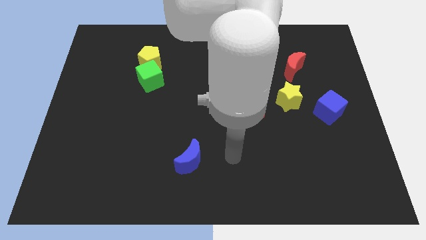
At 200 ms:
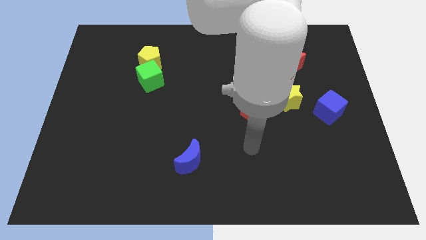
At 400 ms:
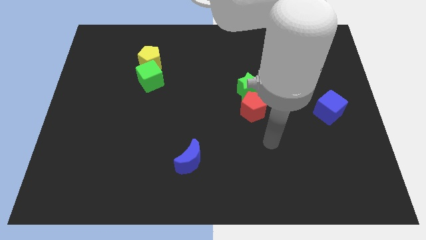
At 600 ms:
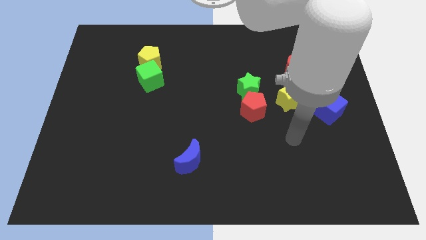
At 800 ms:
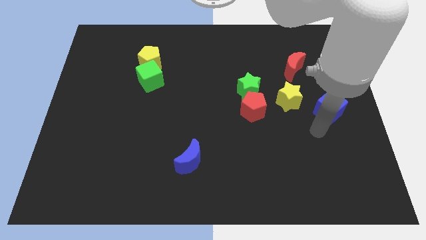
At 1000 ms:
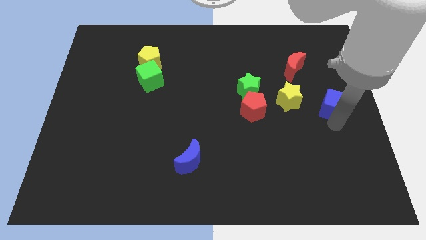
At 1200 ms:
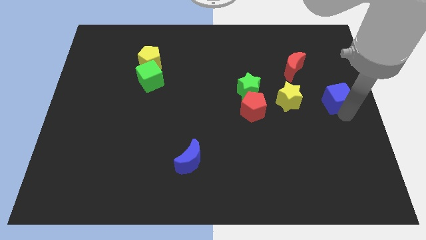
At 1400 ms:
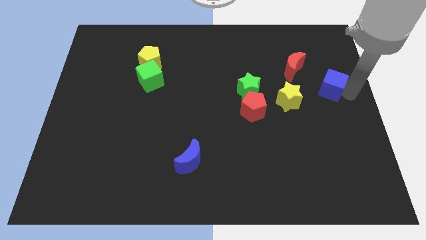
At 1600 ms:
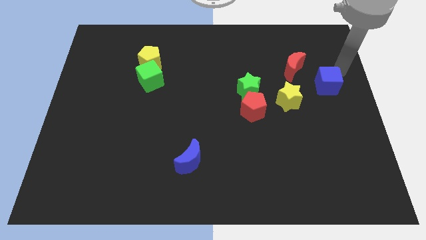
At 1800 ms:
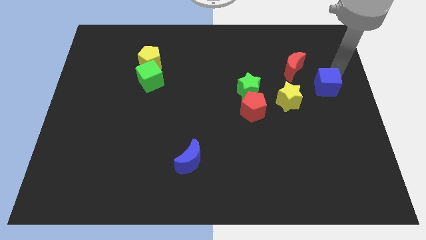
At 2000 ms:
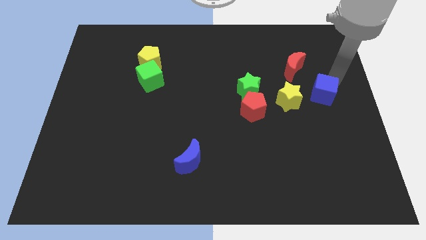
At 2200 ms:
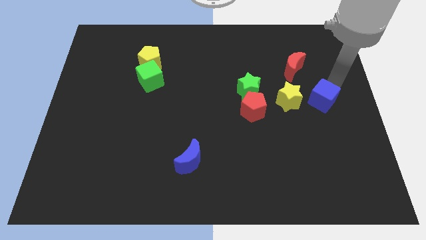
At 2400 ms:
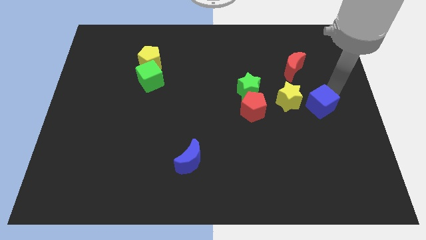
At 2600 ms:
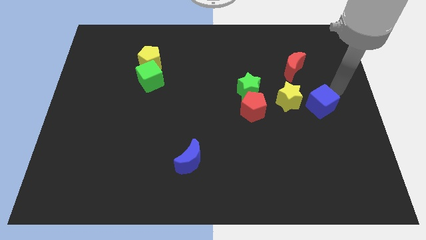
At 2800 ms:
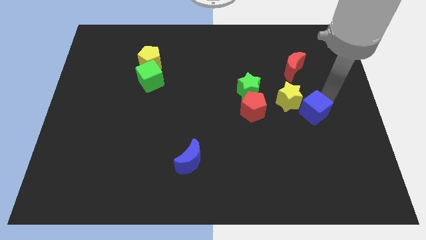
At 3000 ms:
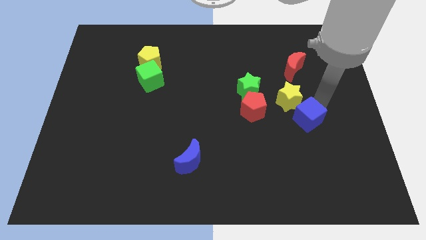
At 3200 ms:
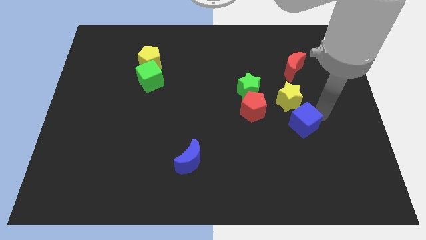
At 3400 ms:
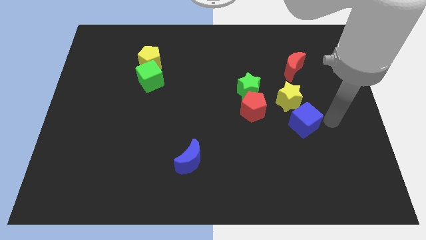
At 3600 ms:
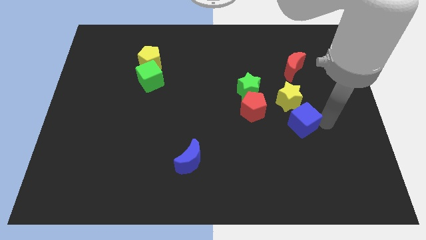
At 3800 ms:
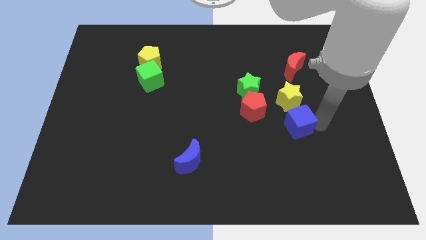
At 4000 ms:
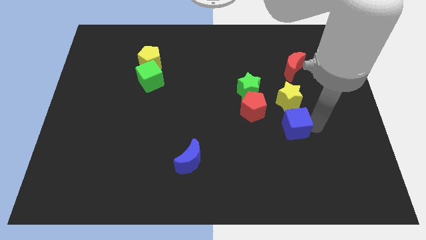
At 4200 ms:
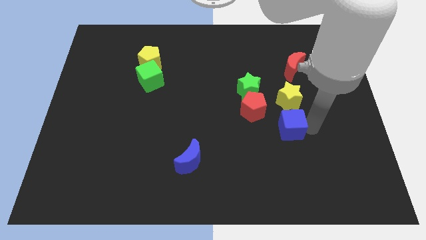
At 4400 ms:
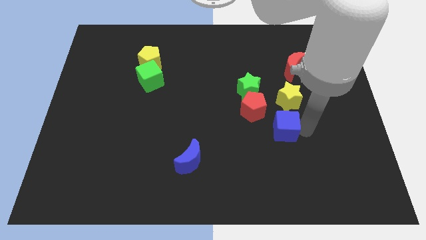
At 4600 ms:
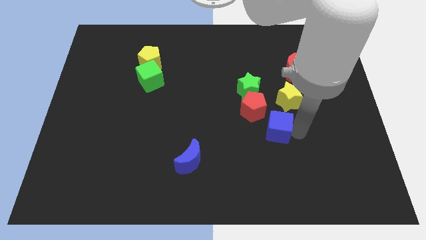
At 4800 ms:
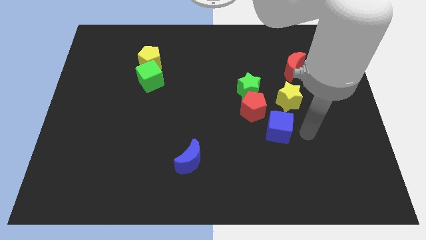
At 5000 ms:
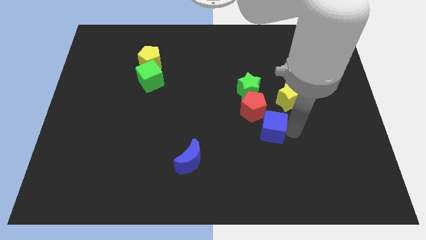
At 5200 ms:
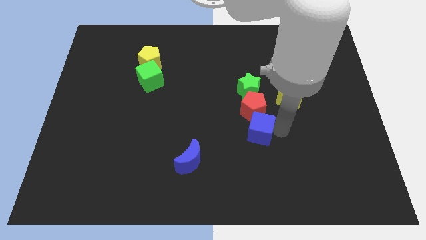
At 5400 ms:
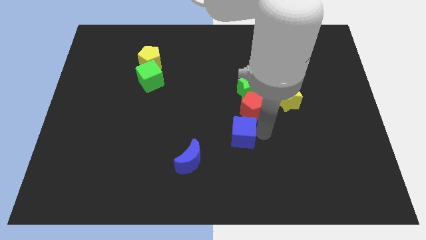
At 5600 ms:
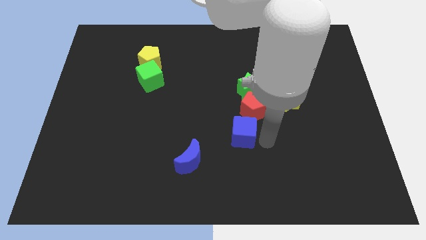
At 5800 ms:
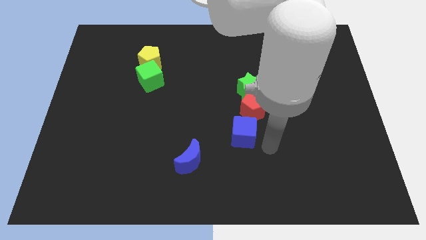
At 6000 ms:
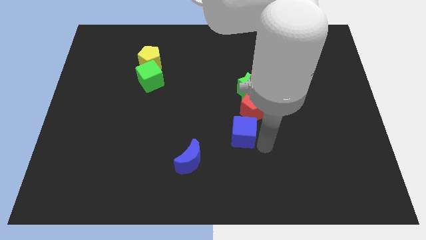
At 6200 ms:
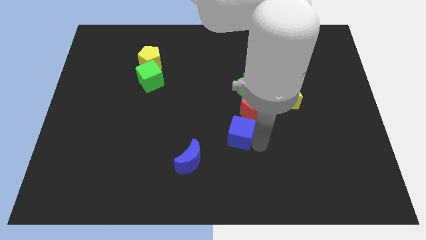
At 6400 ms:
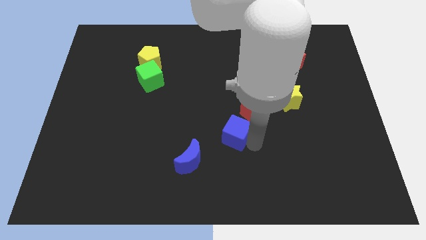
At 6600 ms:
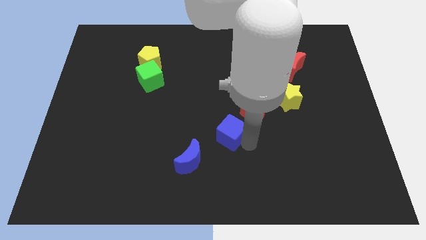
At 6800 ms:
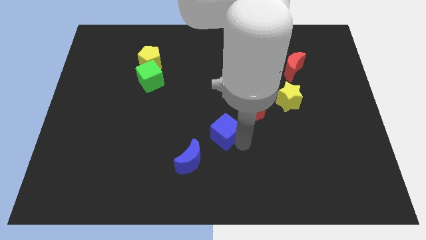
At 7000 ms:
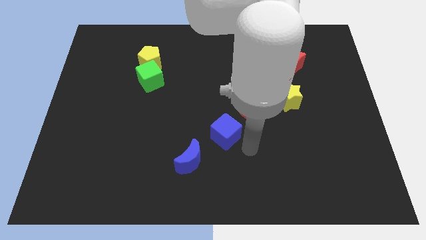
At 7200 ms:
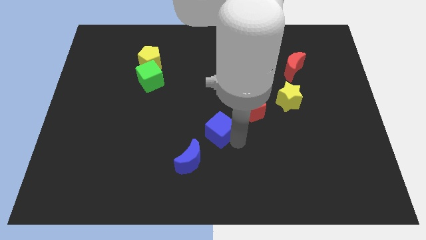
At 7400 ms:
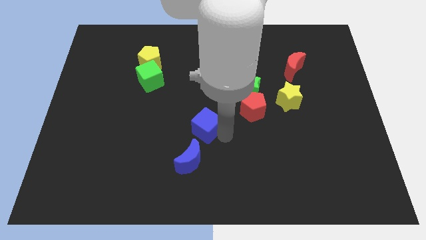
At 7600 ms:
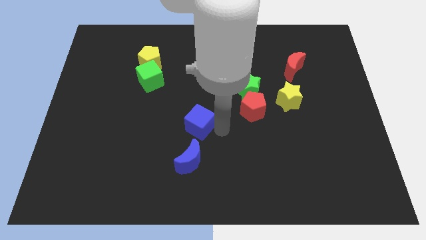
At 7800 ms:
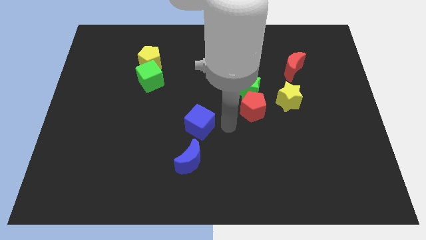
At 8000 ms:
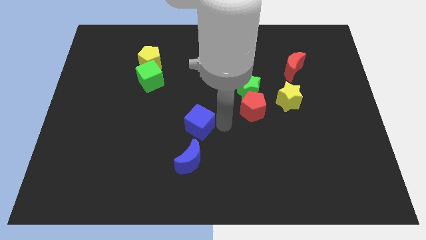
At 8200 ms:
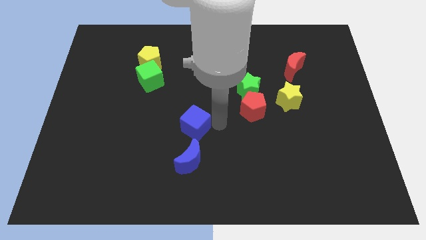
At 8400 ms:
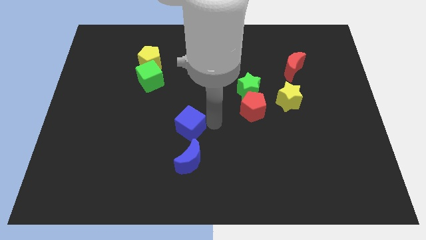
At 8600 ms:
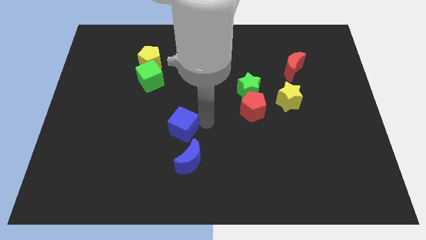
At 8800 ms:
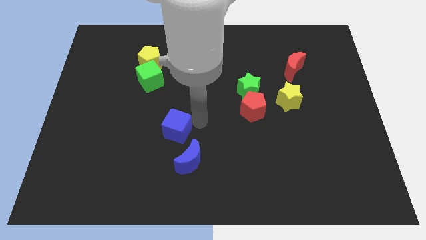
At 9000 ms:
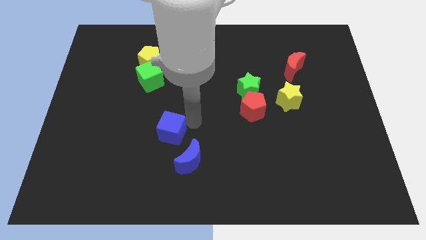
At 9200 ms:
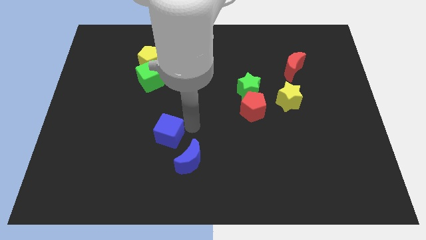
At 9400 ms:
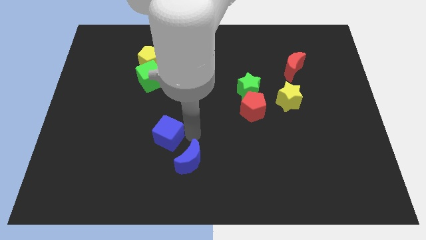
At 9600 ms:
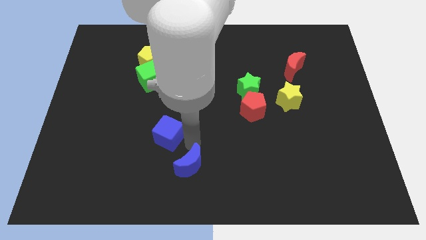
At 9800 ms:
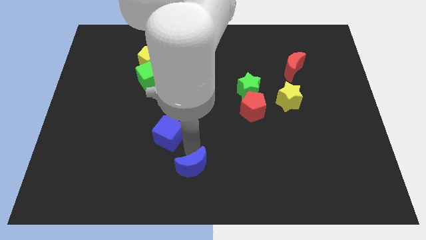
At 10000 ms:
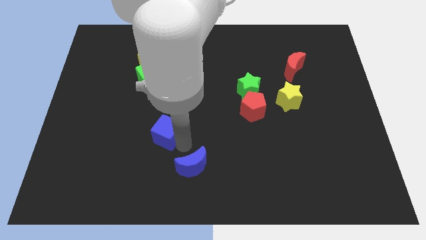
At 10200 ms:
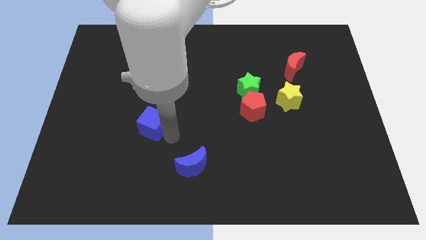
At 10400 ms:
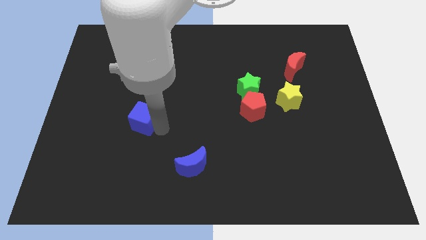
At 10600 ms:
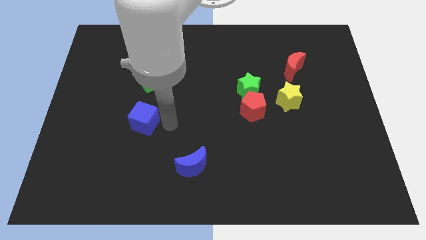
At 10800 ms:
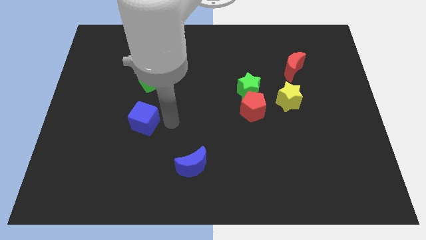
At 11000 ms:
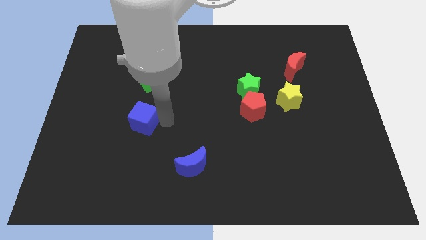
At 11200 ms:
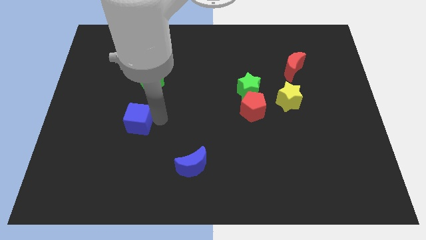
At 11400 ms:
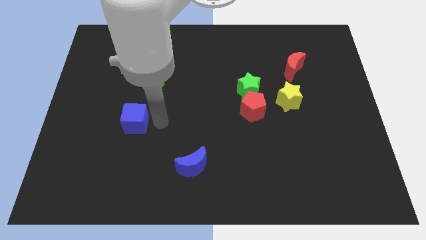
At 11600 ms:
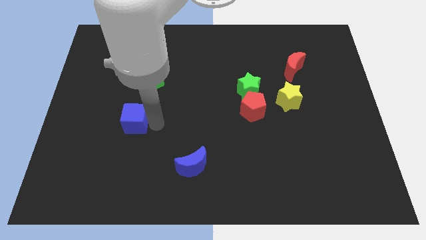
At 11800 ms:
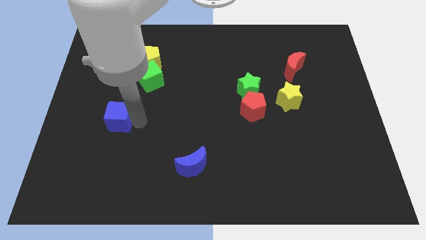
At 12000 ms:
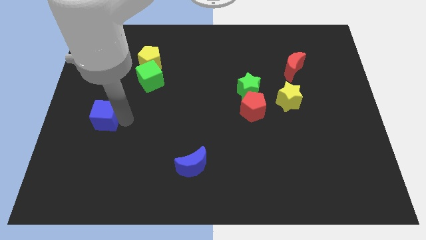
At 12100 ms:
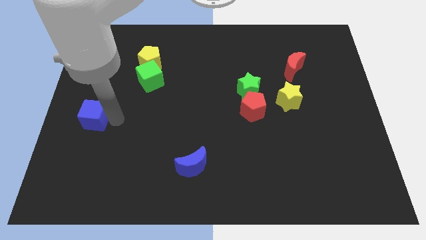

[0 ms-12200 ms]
put the blue cube to the left side
